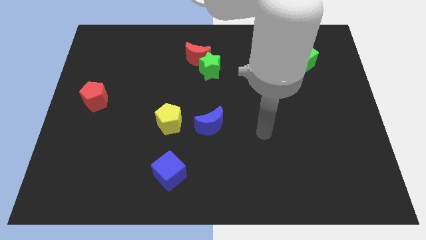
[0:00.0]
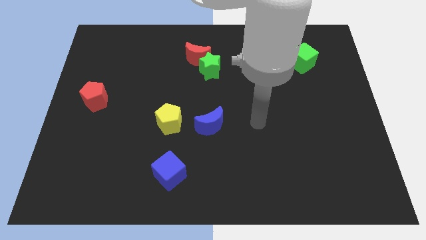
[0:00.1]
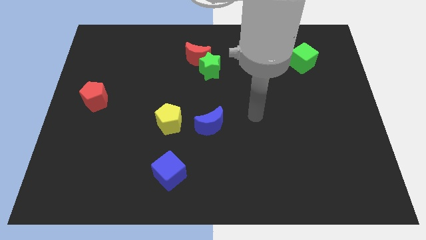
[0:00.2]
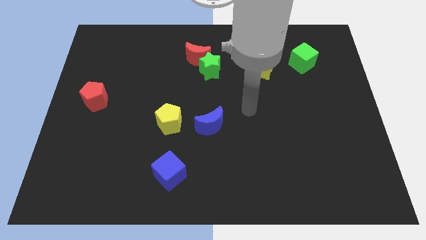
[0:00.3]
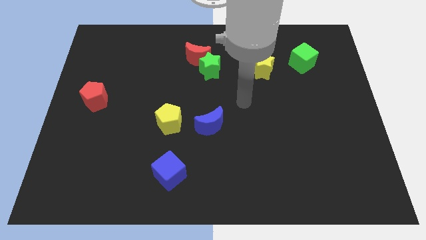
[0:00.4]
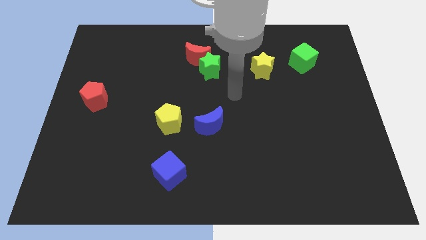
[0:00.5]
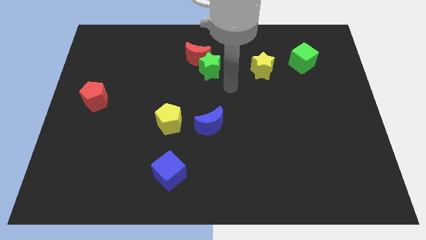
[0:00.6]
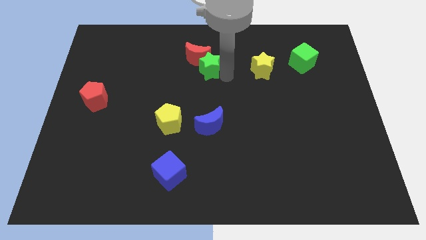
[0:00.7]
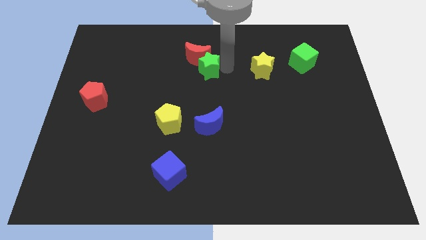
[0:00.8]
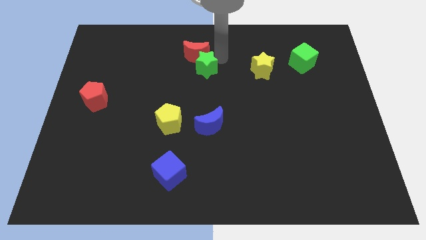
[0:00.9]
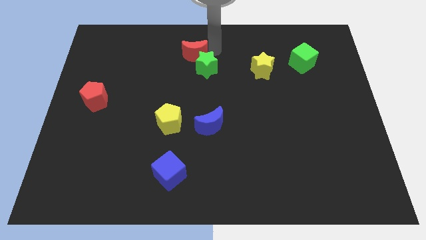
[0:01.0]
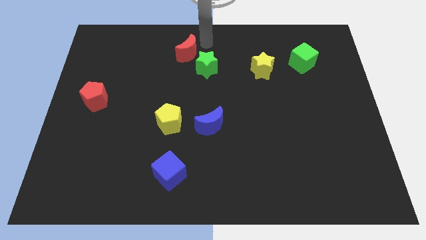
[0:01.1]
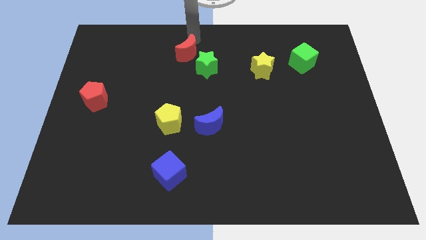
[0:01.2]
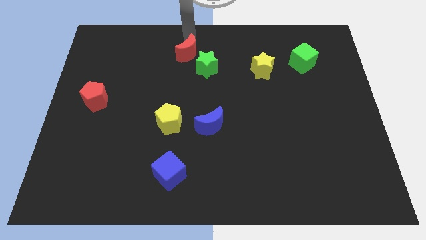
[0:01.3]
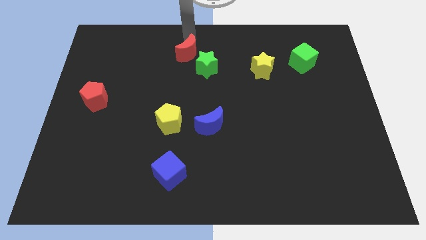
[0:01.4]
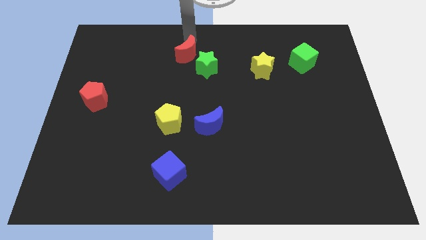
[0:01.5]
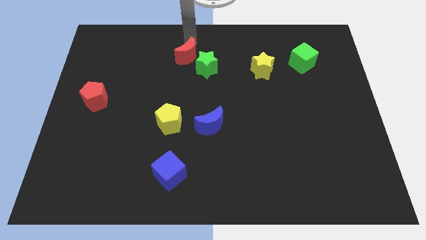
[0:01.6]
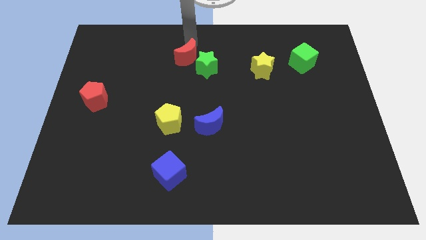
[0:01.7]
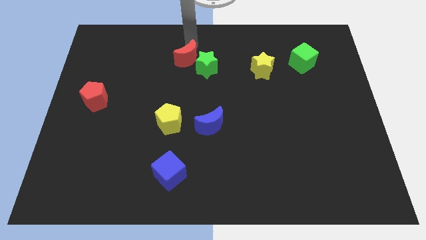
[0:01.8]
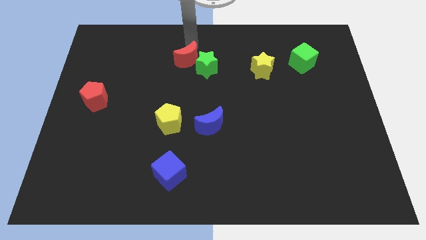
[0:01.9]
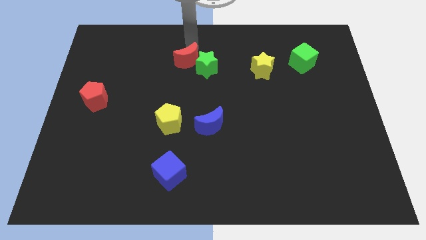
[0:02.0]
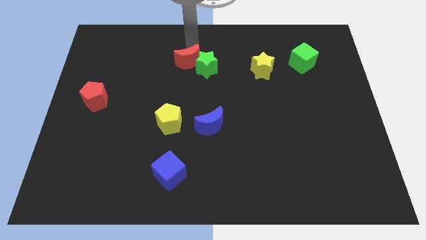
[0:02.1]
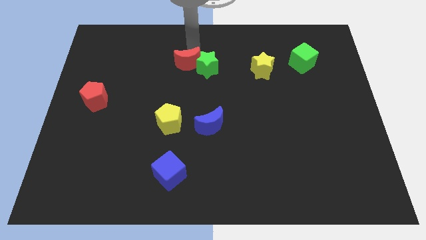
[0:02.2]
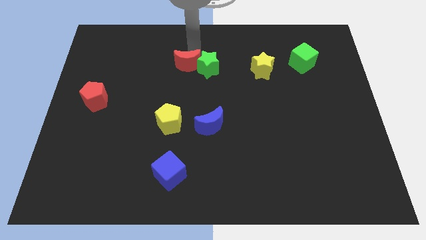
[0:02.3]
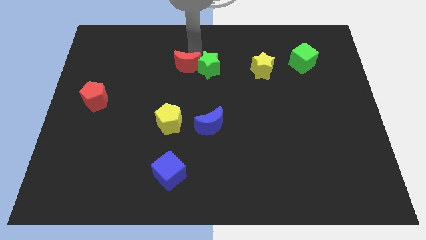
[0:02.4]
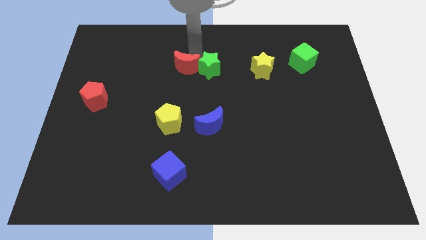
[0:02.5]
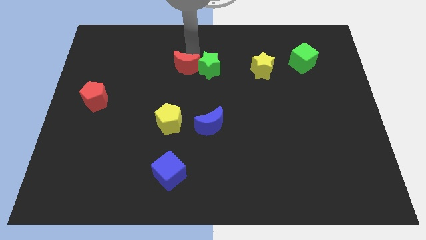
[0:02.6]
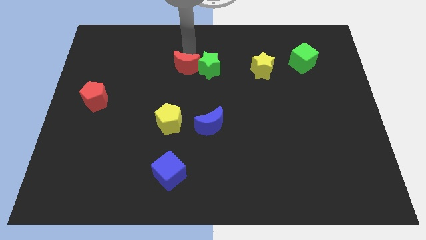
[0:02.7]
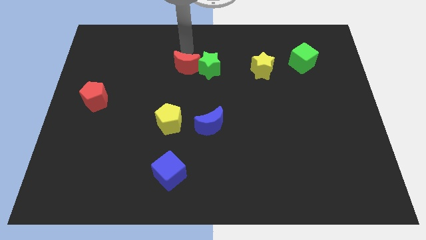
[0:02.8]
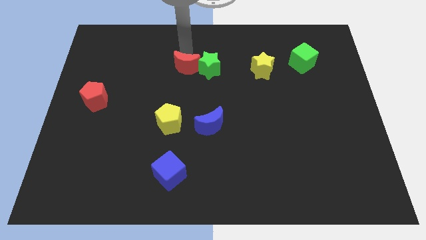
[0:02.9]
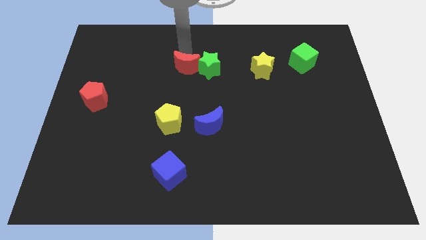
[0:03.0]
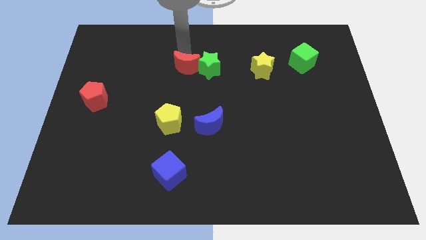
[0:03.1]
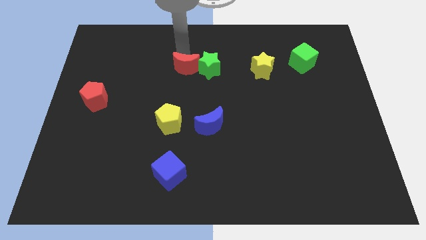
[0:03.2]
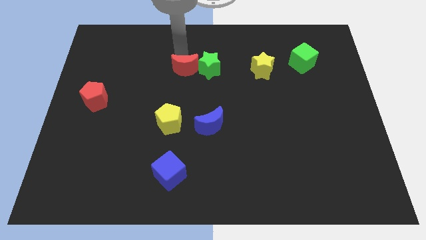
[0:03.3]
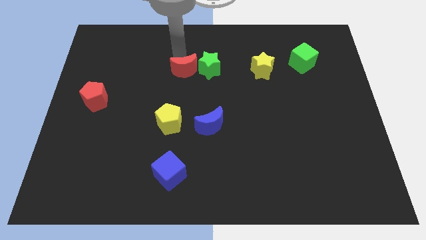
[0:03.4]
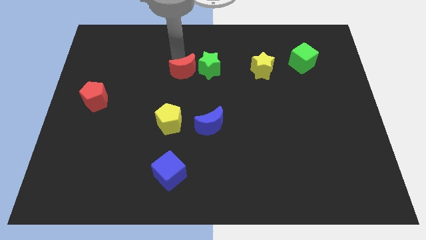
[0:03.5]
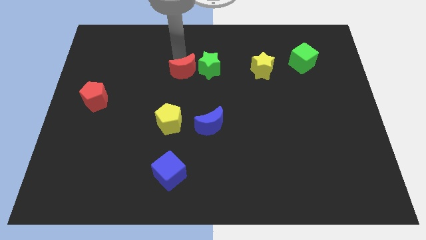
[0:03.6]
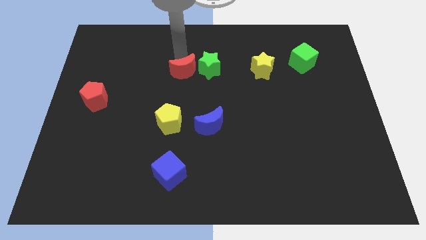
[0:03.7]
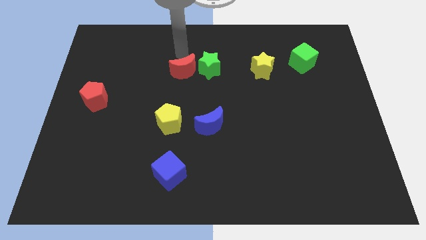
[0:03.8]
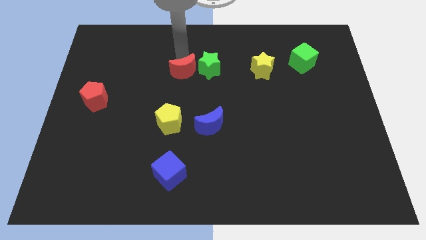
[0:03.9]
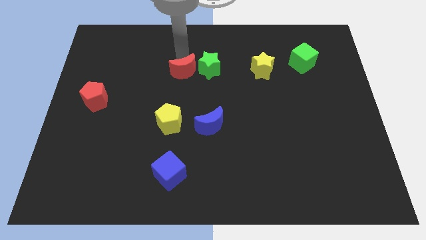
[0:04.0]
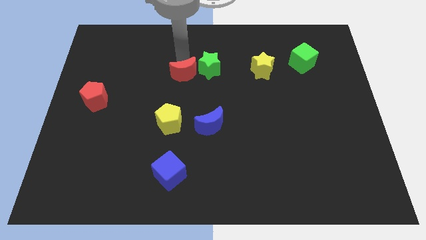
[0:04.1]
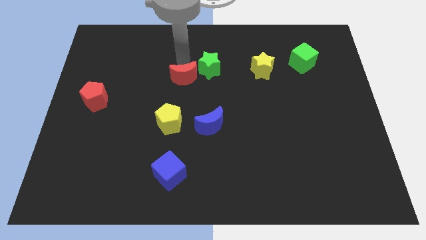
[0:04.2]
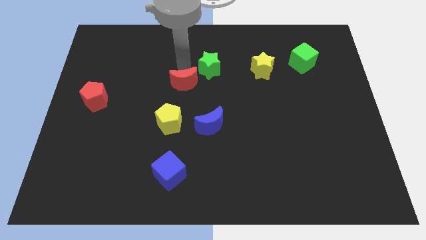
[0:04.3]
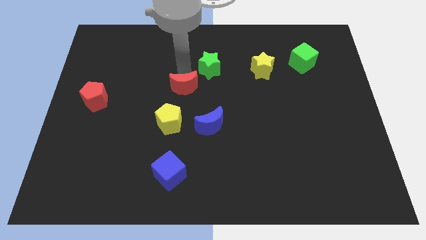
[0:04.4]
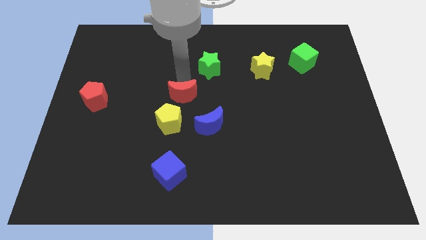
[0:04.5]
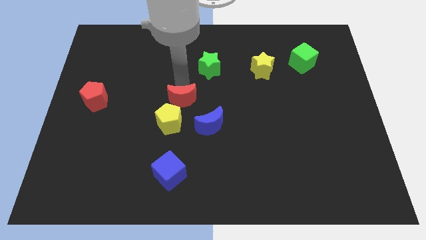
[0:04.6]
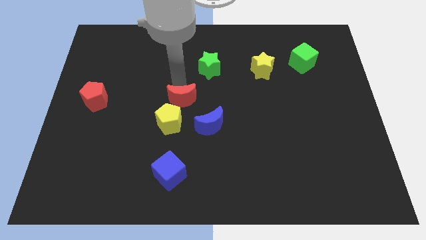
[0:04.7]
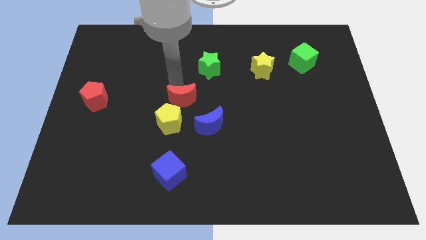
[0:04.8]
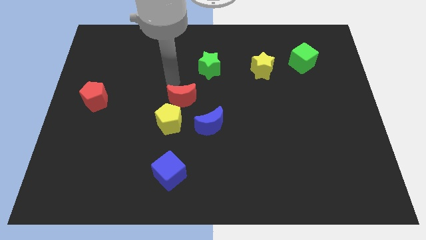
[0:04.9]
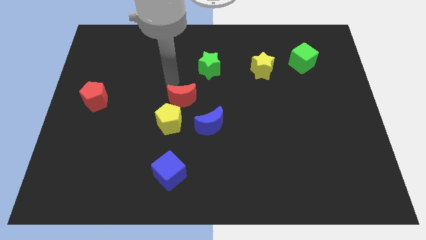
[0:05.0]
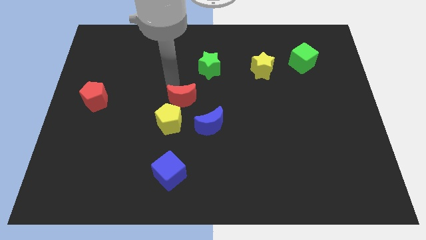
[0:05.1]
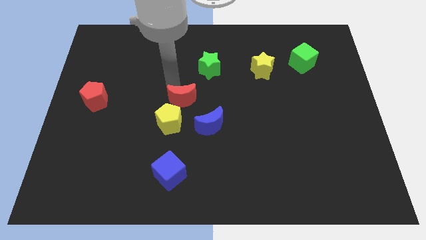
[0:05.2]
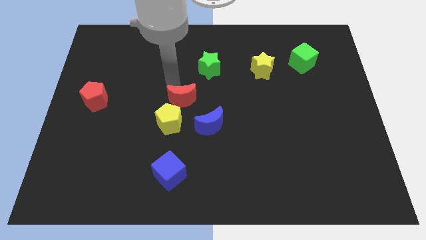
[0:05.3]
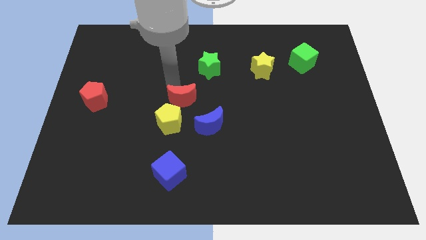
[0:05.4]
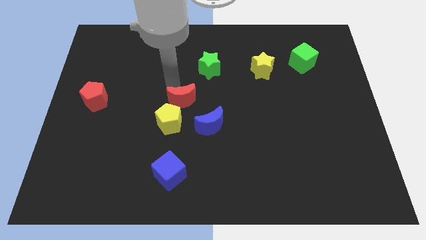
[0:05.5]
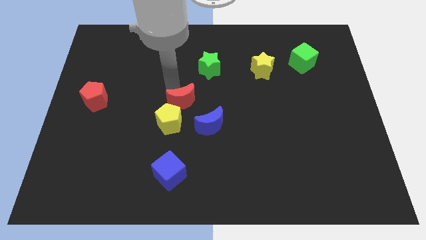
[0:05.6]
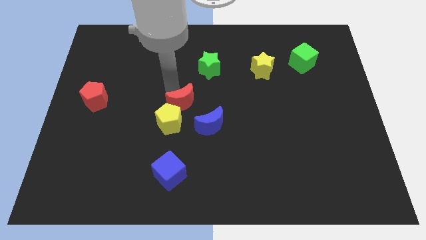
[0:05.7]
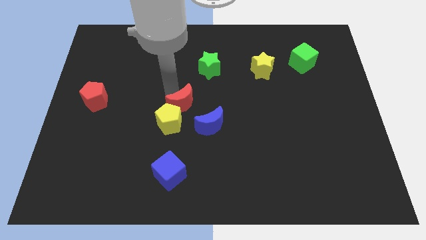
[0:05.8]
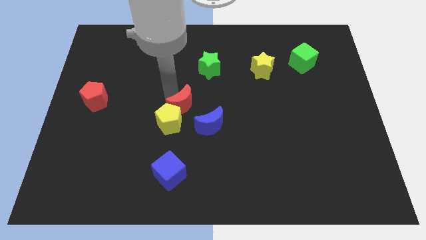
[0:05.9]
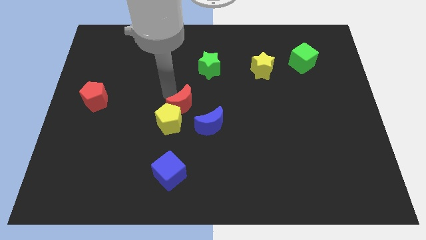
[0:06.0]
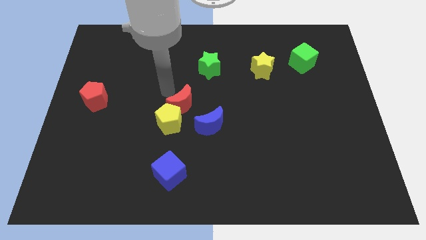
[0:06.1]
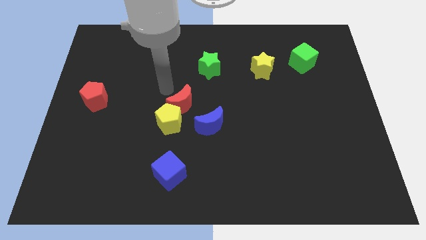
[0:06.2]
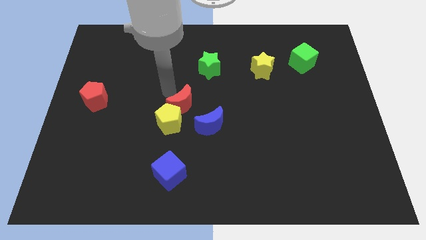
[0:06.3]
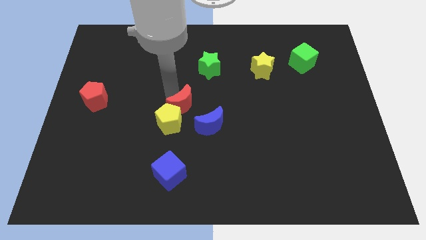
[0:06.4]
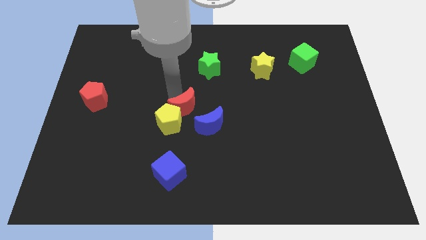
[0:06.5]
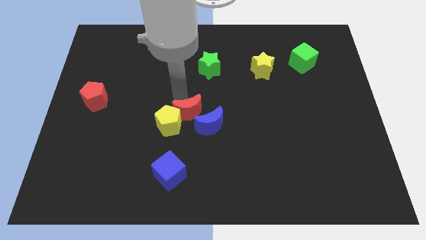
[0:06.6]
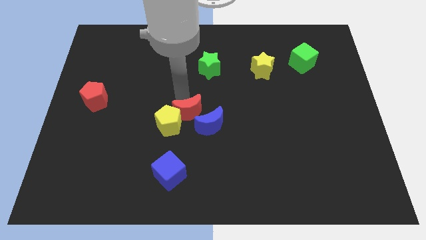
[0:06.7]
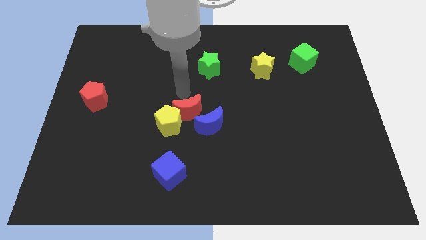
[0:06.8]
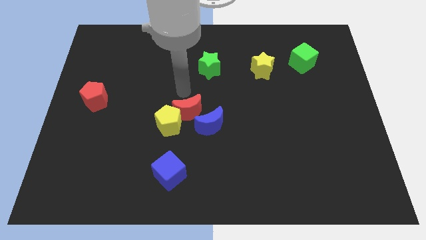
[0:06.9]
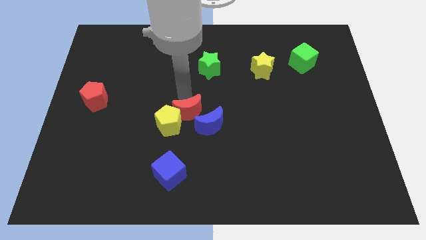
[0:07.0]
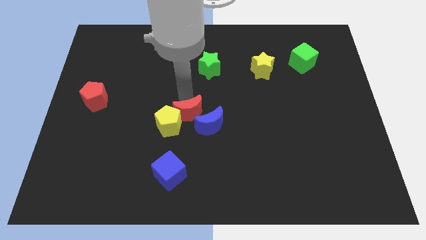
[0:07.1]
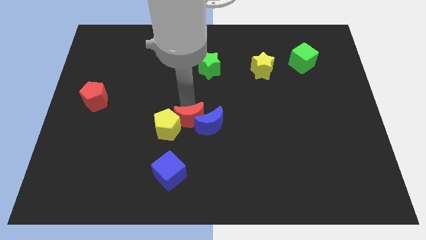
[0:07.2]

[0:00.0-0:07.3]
slide the red moon down

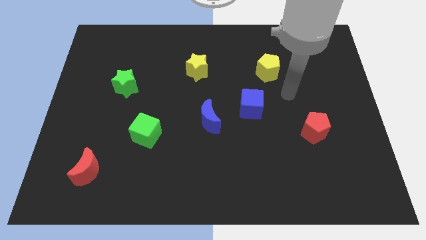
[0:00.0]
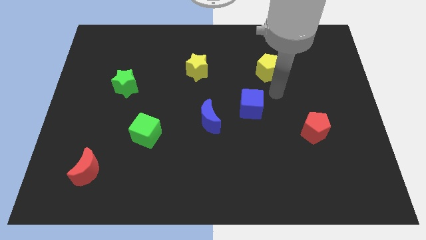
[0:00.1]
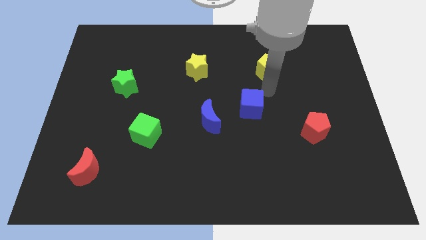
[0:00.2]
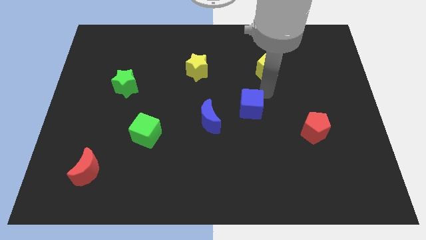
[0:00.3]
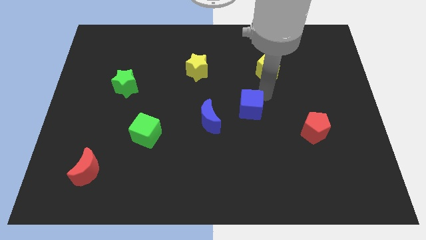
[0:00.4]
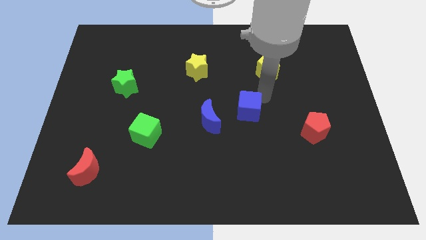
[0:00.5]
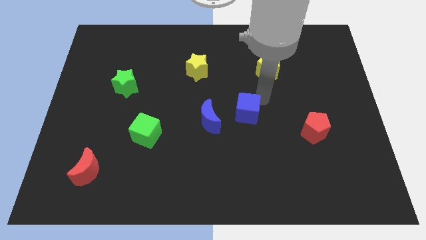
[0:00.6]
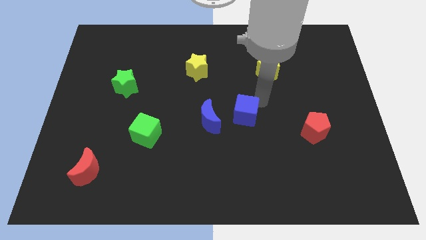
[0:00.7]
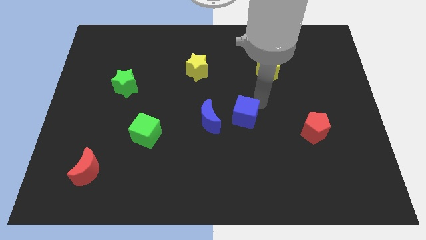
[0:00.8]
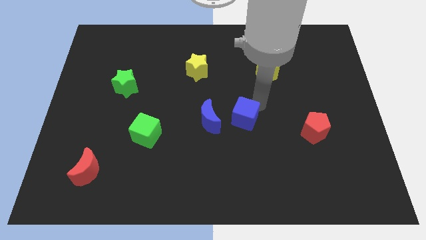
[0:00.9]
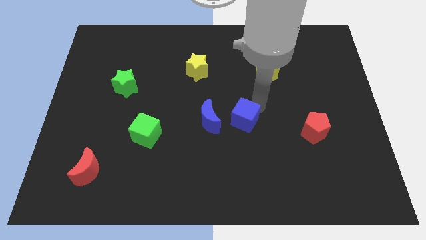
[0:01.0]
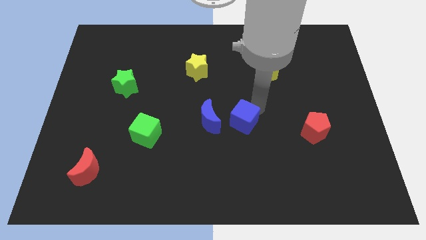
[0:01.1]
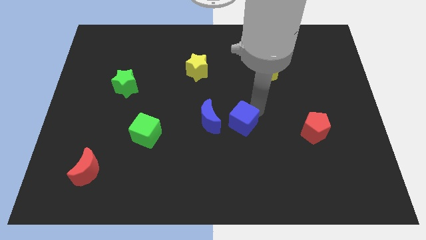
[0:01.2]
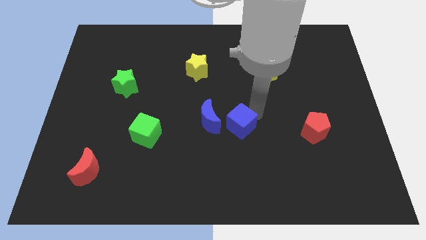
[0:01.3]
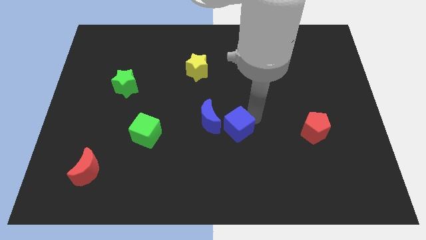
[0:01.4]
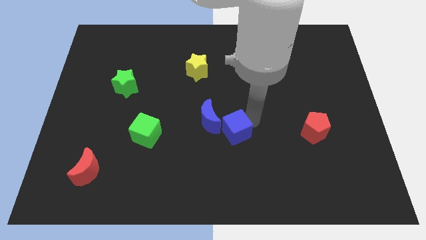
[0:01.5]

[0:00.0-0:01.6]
slightly push the blue cube downwards and then to the left
